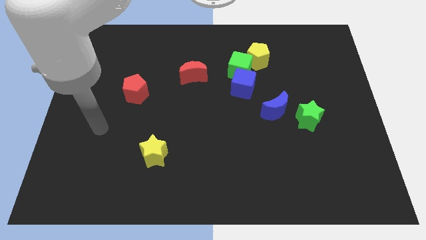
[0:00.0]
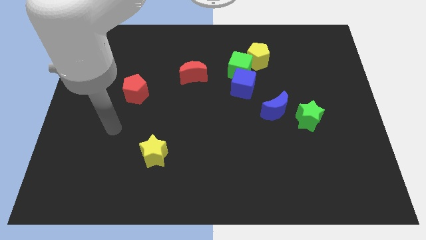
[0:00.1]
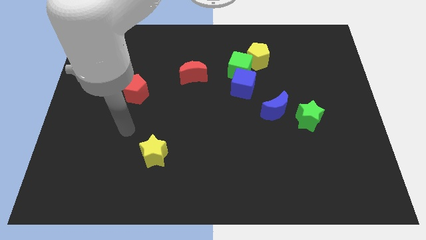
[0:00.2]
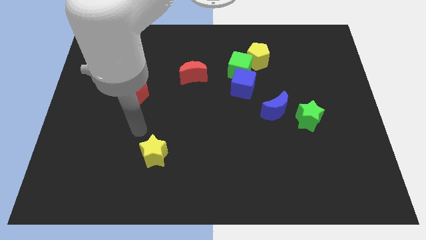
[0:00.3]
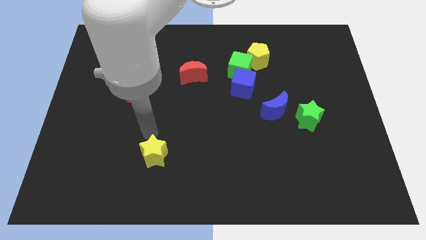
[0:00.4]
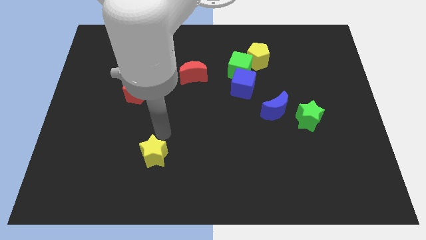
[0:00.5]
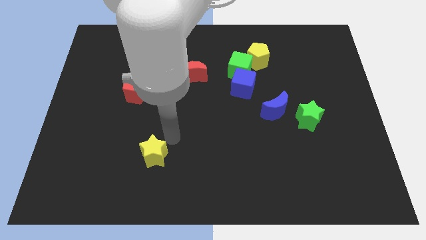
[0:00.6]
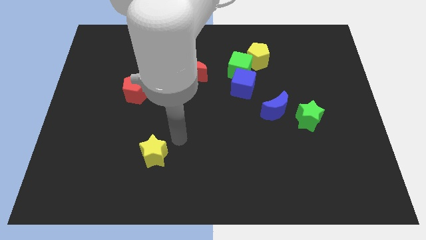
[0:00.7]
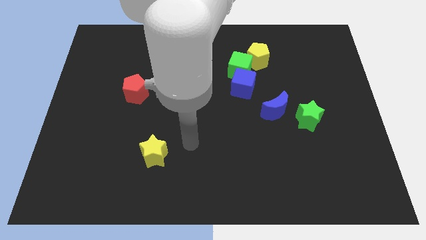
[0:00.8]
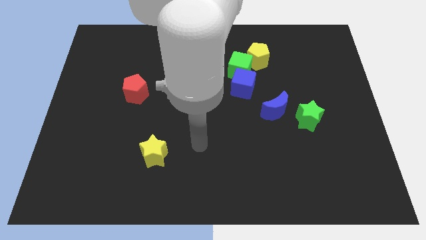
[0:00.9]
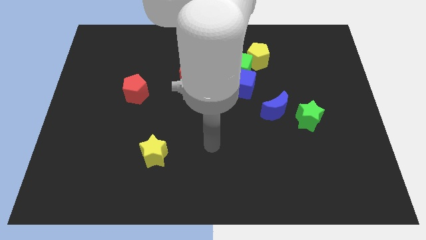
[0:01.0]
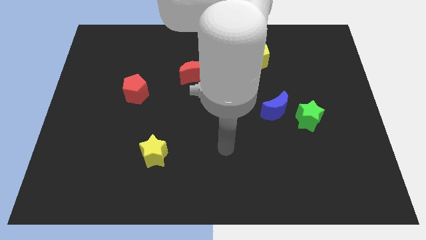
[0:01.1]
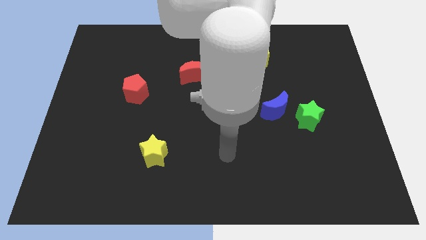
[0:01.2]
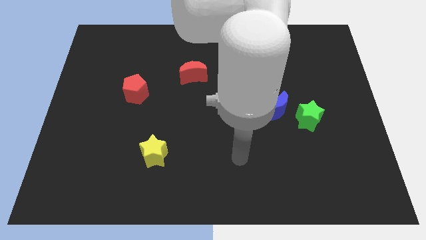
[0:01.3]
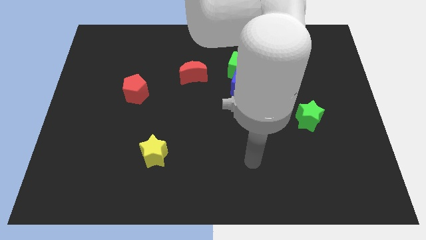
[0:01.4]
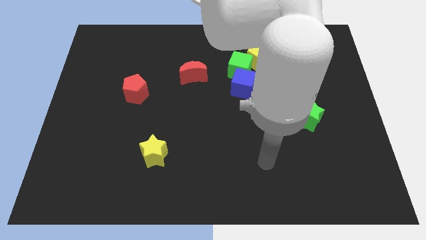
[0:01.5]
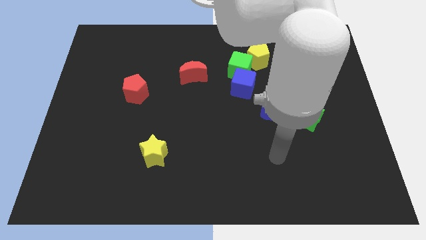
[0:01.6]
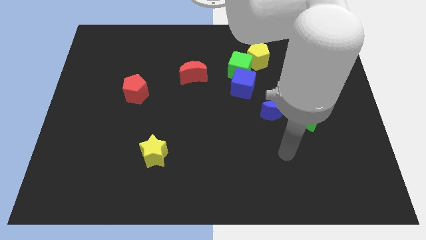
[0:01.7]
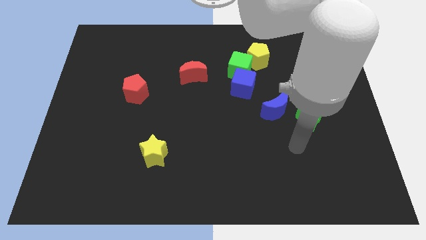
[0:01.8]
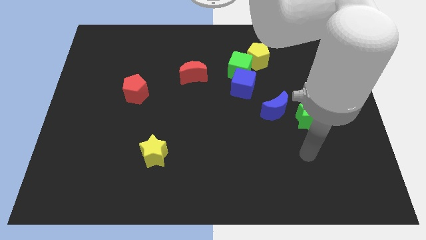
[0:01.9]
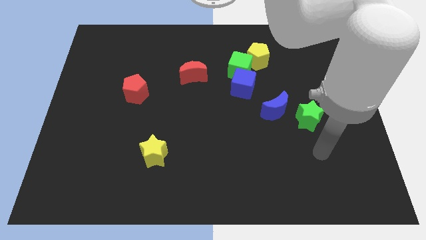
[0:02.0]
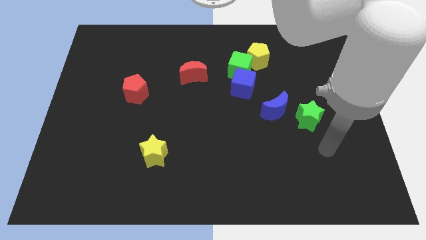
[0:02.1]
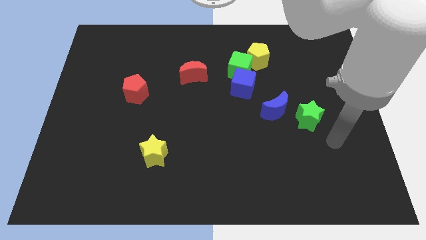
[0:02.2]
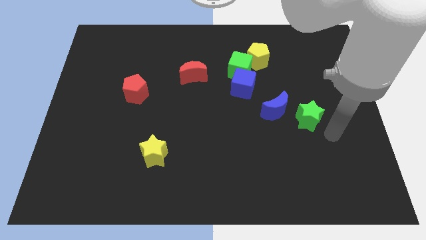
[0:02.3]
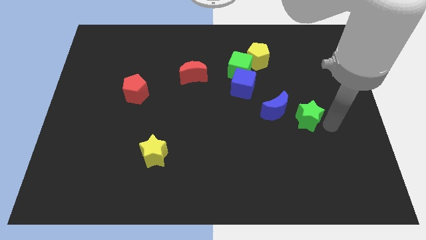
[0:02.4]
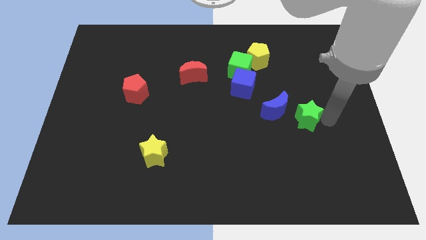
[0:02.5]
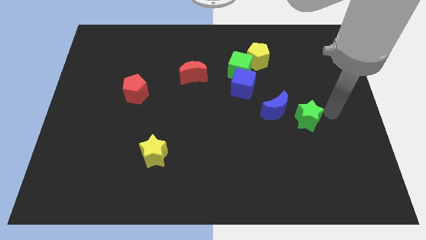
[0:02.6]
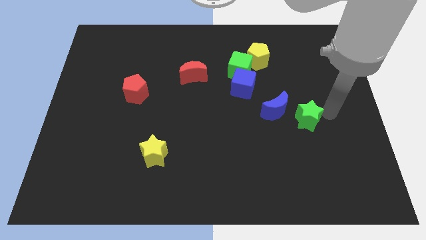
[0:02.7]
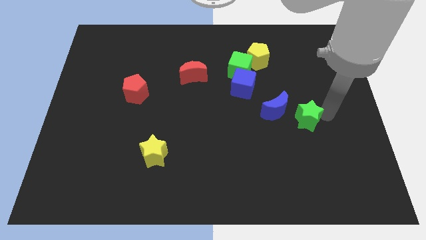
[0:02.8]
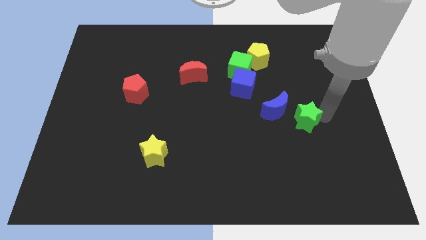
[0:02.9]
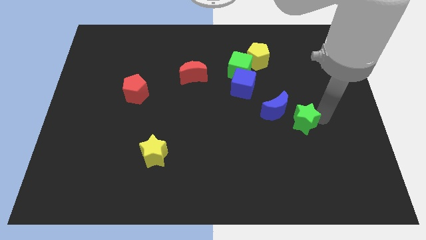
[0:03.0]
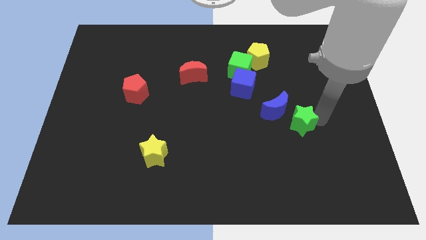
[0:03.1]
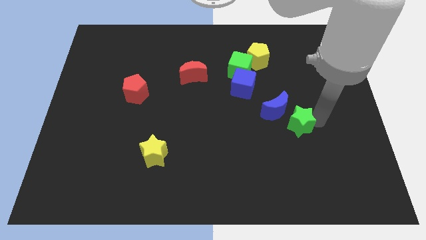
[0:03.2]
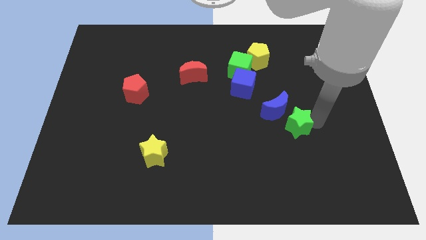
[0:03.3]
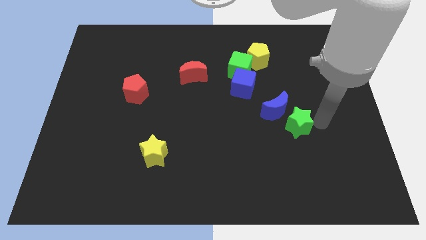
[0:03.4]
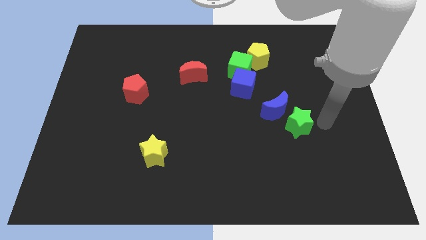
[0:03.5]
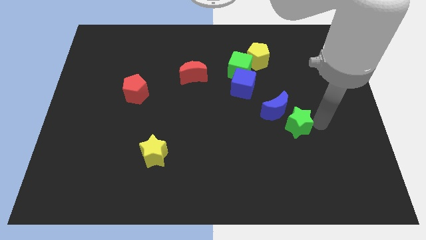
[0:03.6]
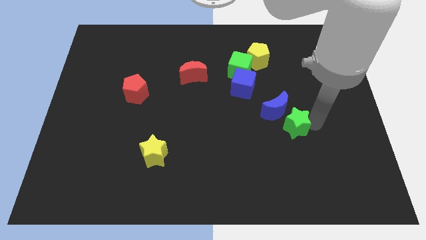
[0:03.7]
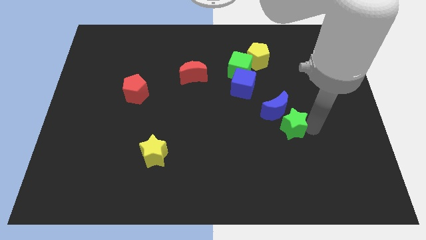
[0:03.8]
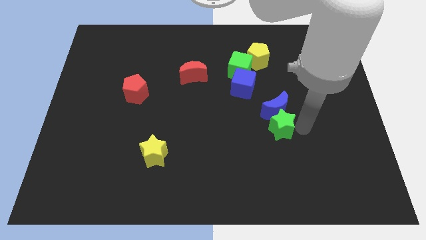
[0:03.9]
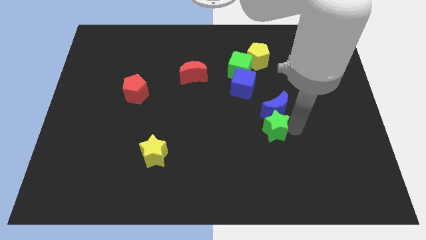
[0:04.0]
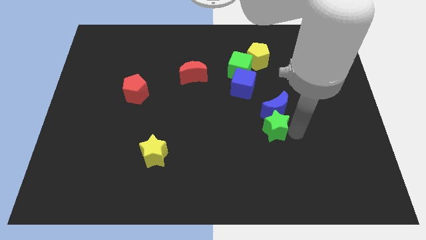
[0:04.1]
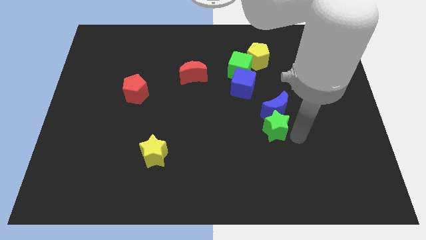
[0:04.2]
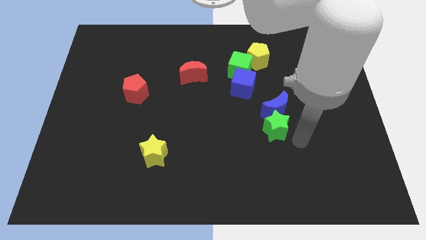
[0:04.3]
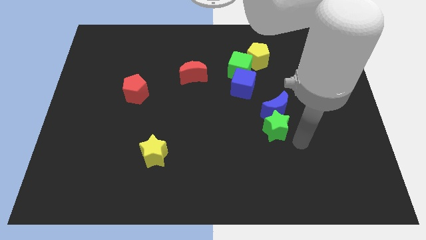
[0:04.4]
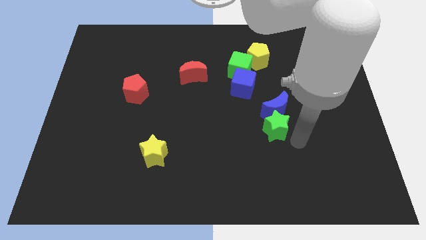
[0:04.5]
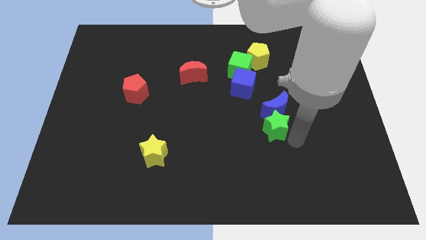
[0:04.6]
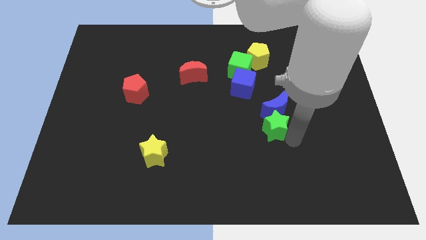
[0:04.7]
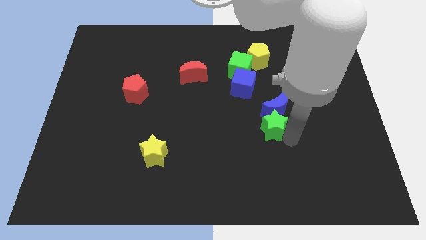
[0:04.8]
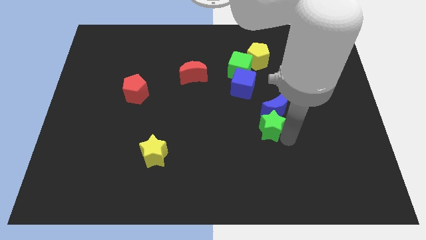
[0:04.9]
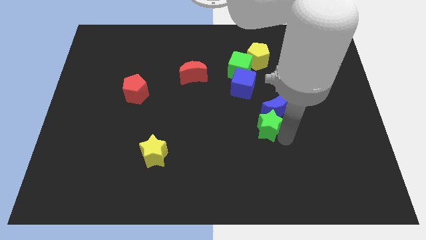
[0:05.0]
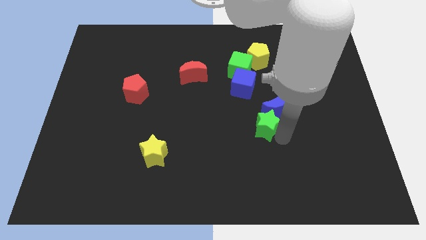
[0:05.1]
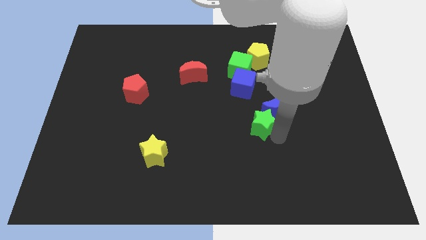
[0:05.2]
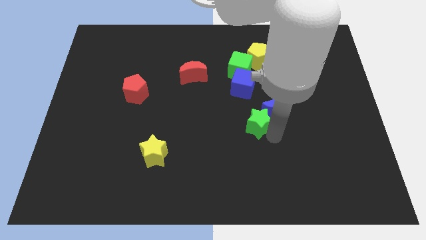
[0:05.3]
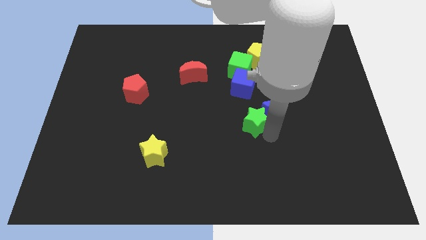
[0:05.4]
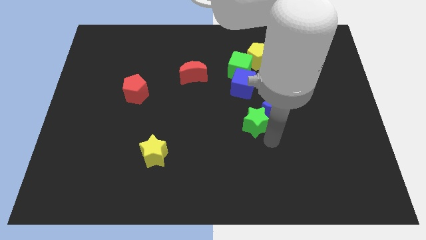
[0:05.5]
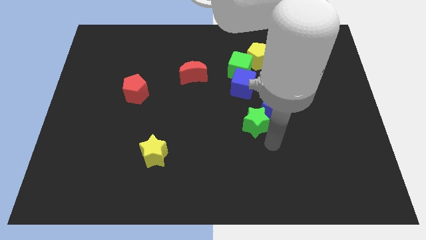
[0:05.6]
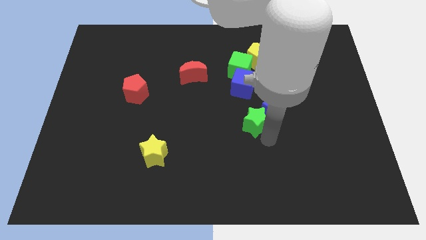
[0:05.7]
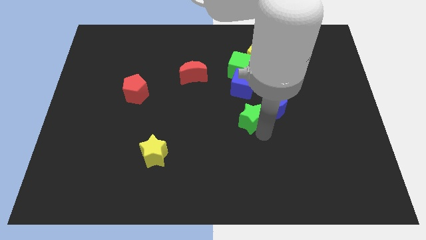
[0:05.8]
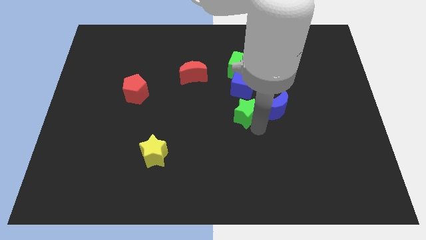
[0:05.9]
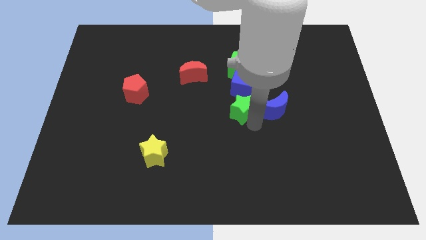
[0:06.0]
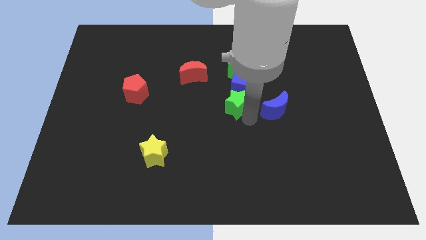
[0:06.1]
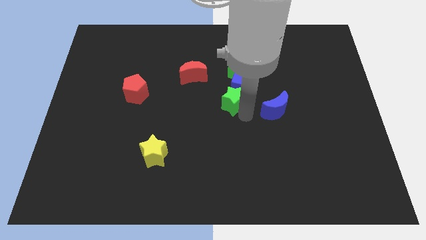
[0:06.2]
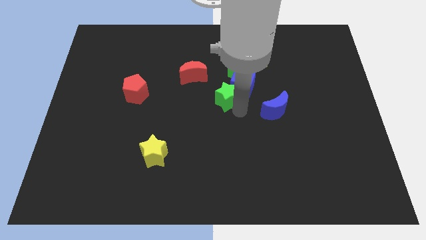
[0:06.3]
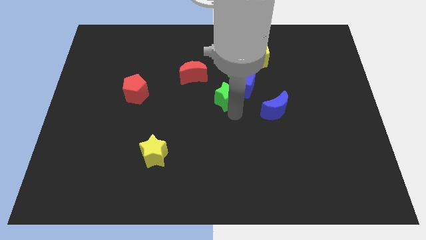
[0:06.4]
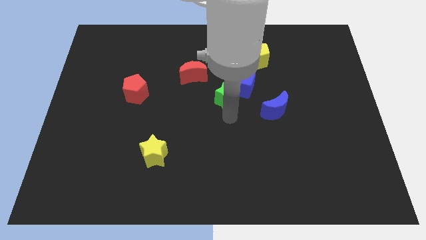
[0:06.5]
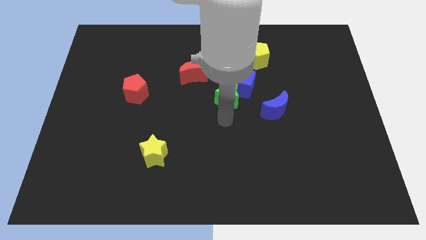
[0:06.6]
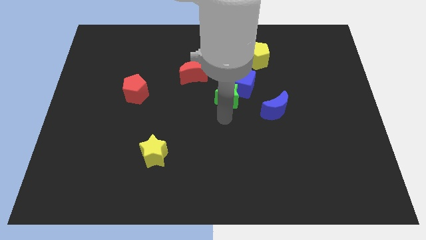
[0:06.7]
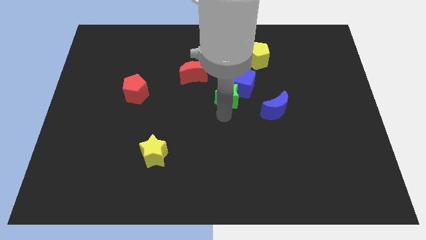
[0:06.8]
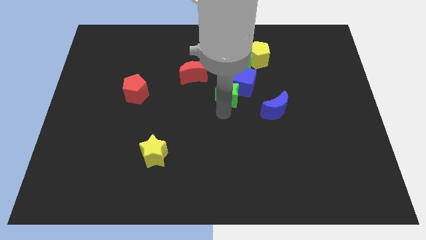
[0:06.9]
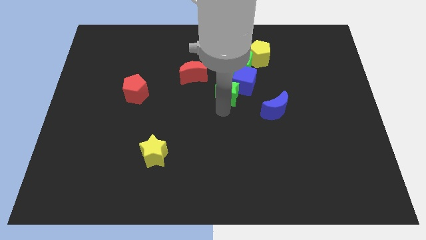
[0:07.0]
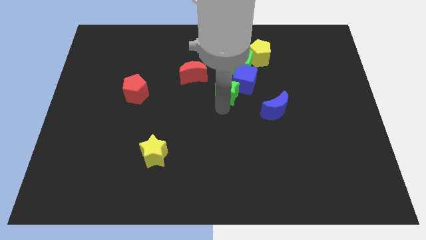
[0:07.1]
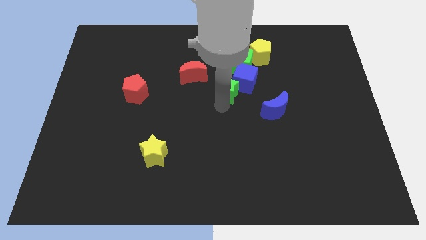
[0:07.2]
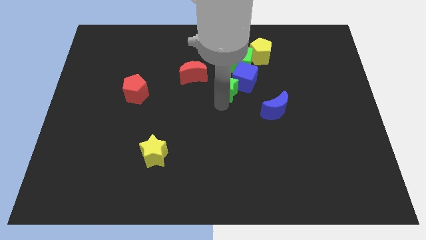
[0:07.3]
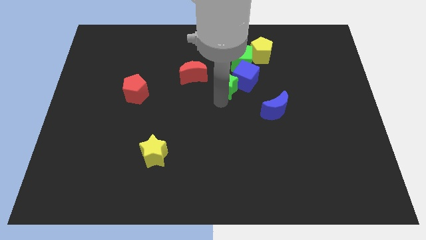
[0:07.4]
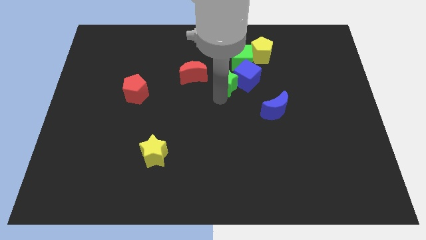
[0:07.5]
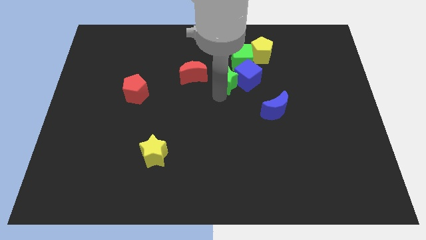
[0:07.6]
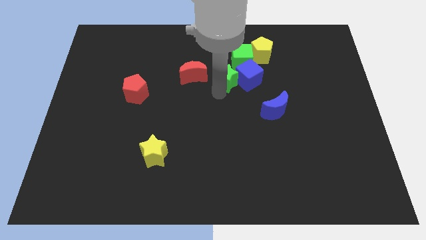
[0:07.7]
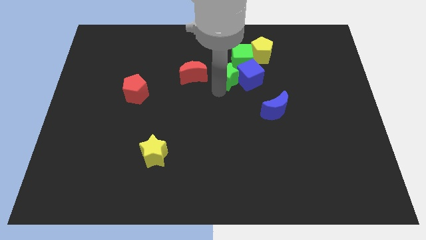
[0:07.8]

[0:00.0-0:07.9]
slide the green star to the bottom left of the yellow pentagon
